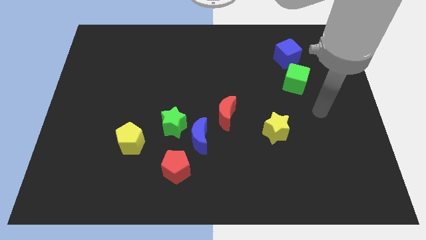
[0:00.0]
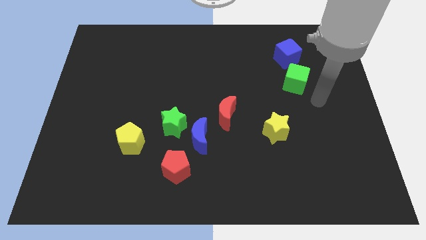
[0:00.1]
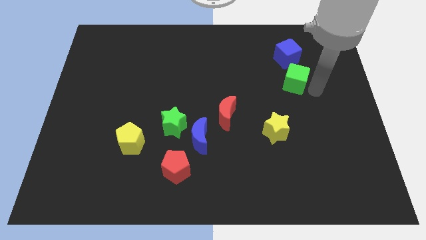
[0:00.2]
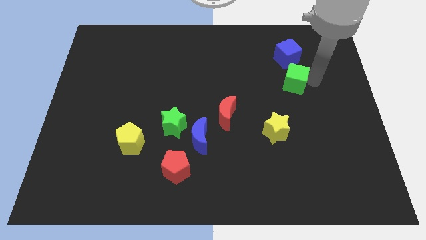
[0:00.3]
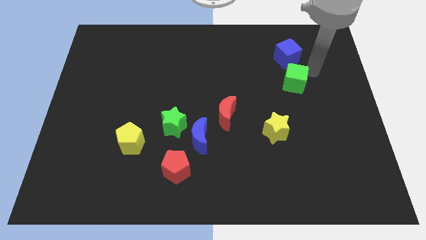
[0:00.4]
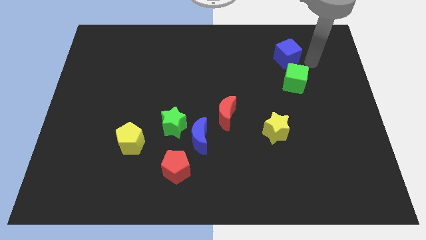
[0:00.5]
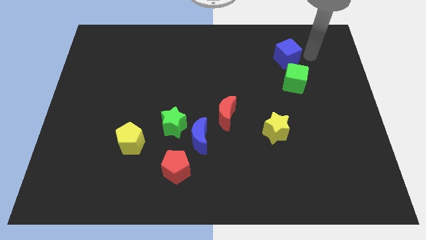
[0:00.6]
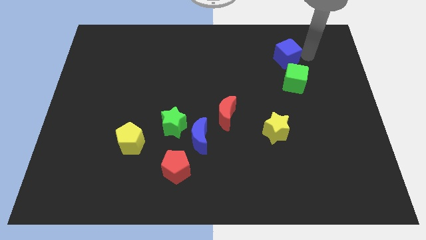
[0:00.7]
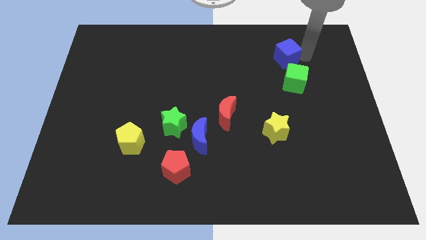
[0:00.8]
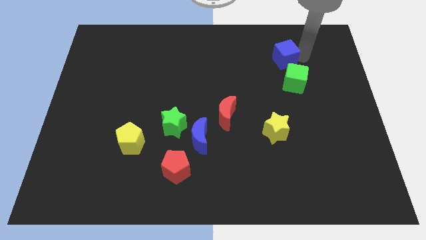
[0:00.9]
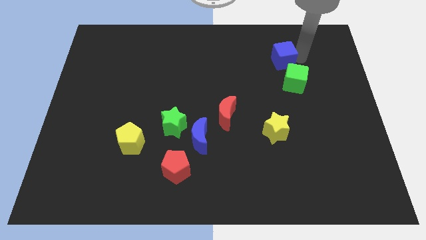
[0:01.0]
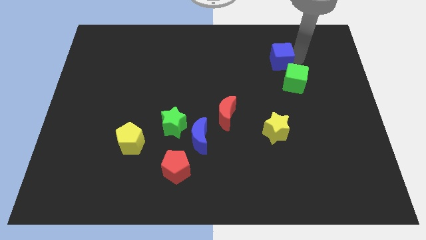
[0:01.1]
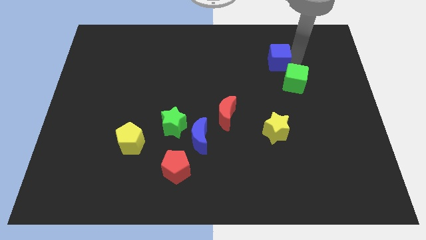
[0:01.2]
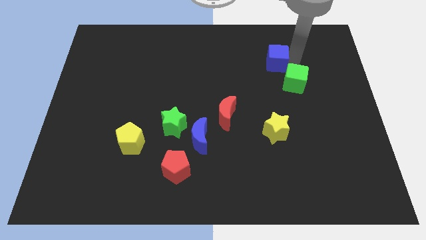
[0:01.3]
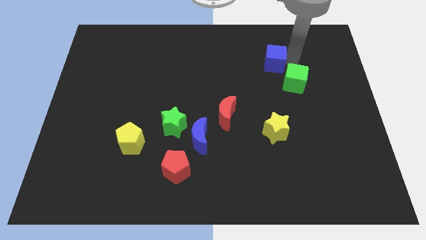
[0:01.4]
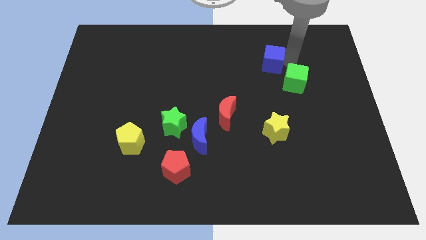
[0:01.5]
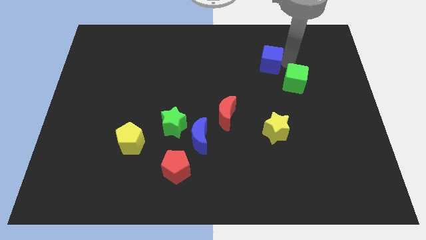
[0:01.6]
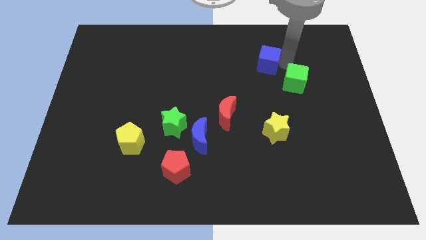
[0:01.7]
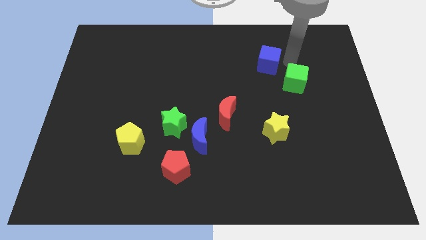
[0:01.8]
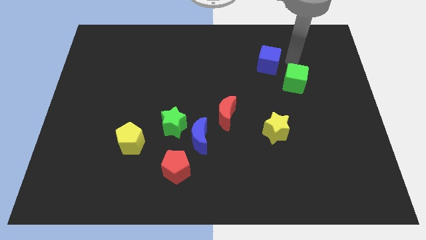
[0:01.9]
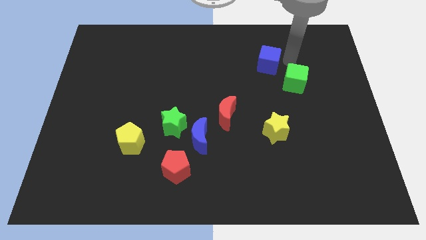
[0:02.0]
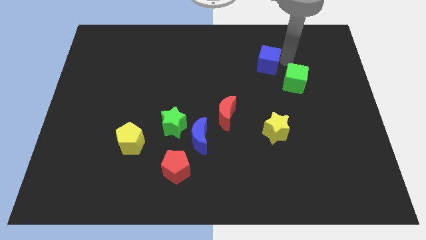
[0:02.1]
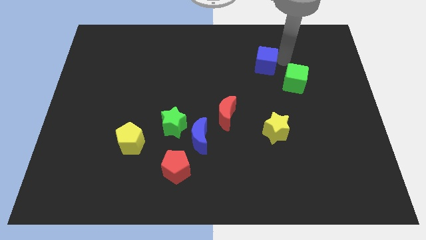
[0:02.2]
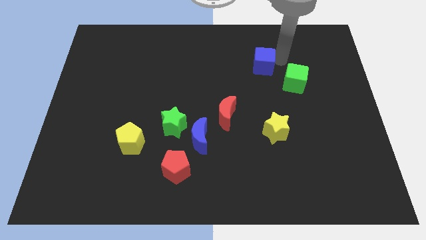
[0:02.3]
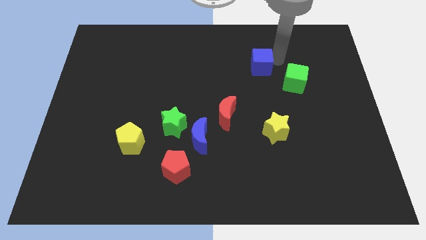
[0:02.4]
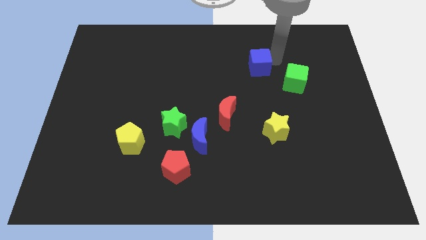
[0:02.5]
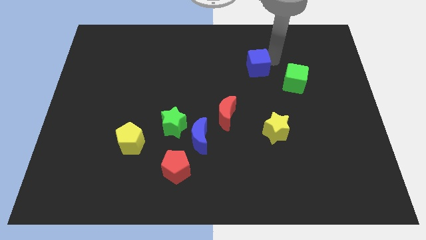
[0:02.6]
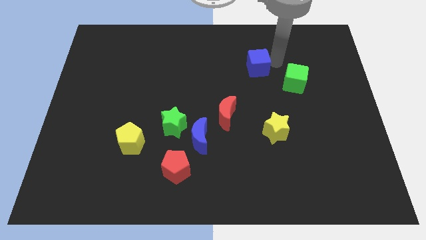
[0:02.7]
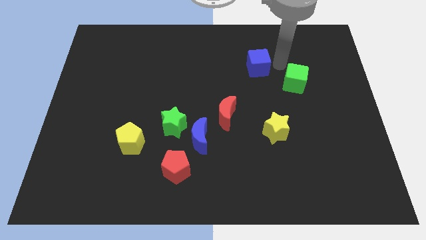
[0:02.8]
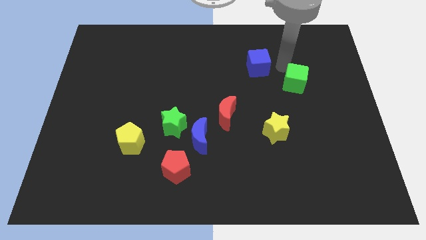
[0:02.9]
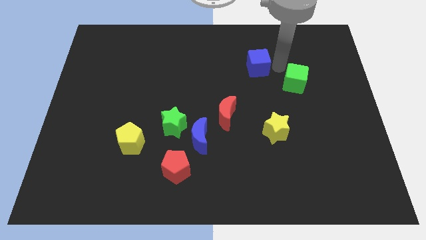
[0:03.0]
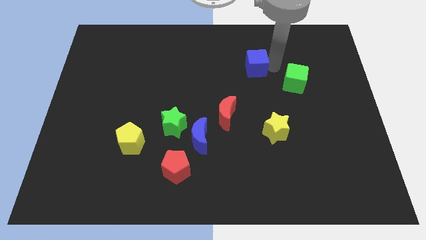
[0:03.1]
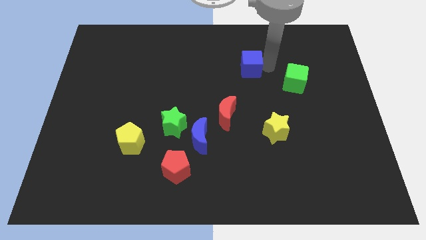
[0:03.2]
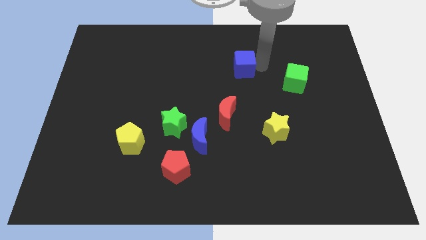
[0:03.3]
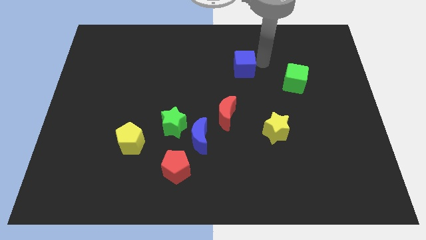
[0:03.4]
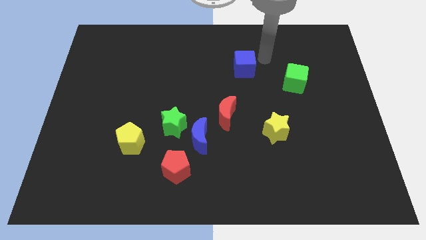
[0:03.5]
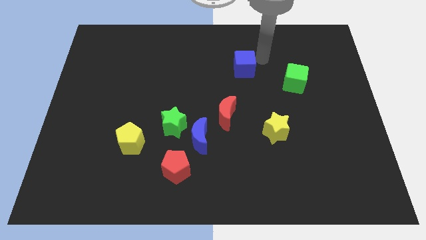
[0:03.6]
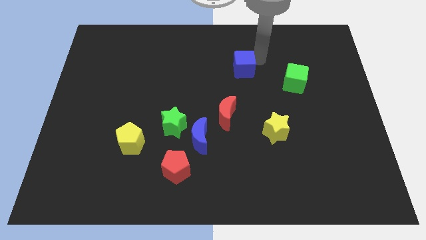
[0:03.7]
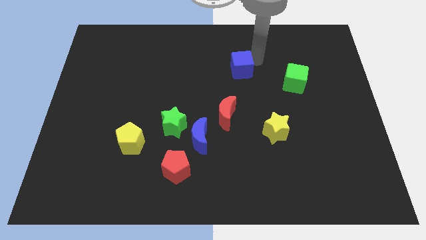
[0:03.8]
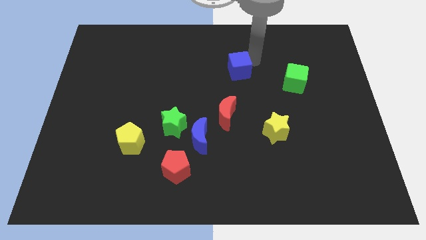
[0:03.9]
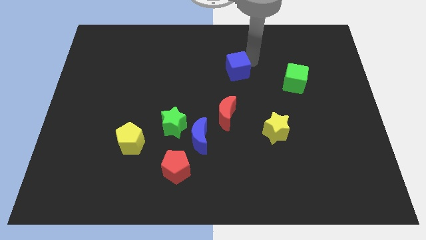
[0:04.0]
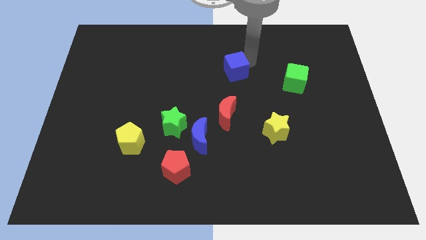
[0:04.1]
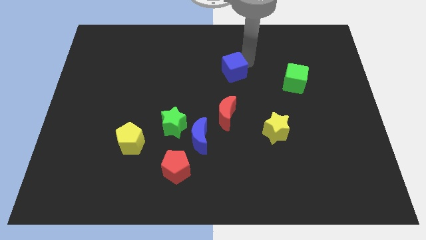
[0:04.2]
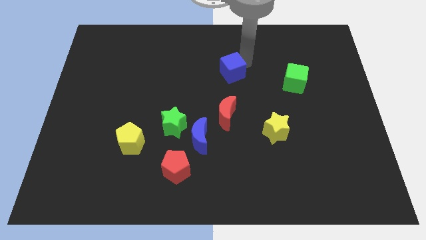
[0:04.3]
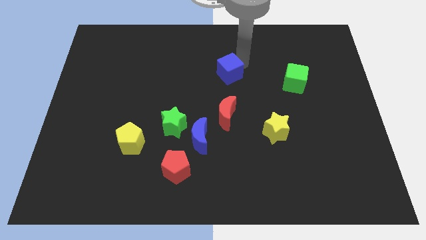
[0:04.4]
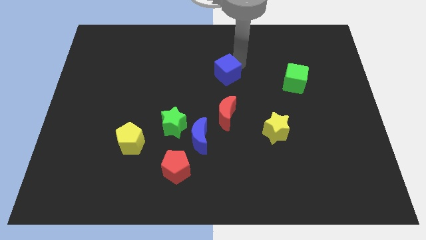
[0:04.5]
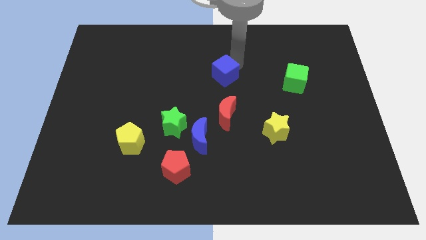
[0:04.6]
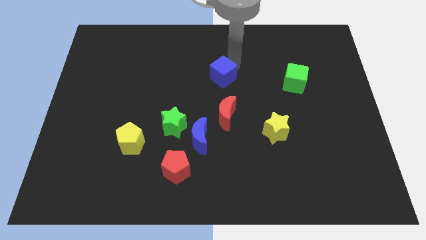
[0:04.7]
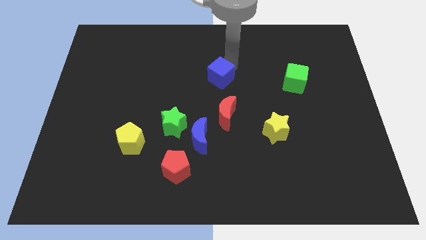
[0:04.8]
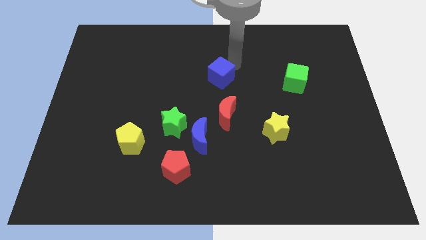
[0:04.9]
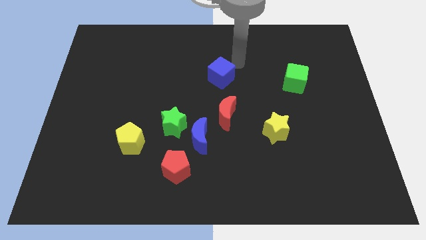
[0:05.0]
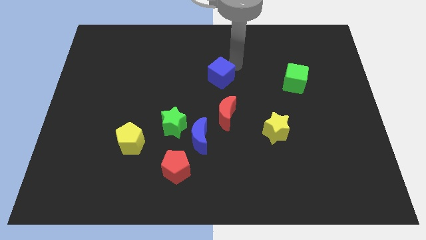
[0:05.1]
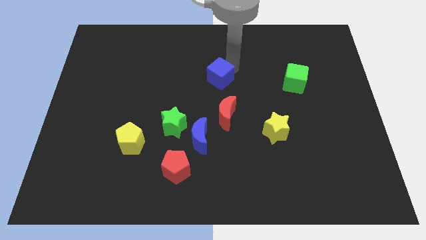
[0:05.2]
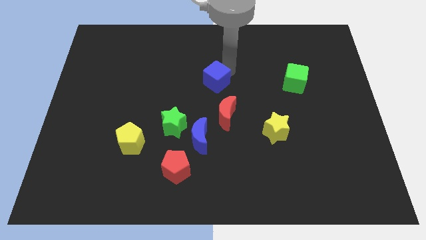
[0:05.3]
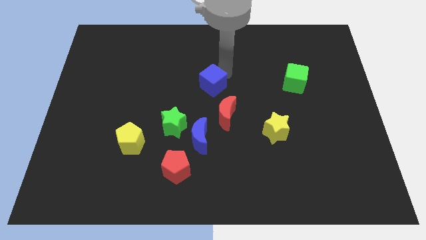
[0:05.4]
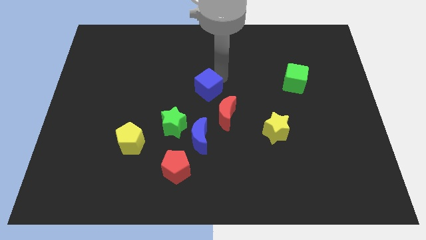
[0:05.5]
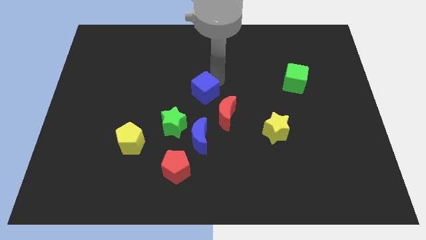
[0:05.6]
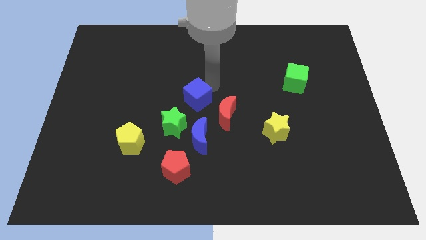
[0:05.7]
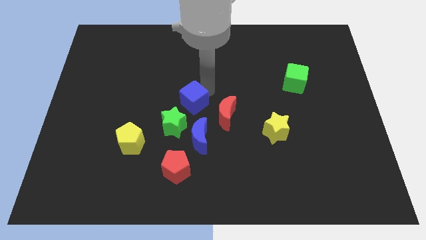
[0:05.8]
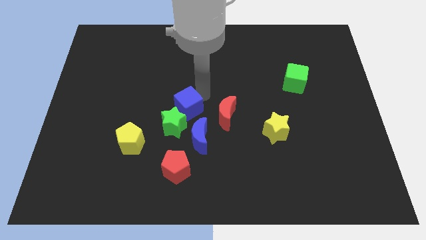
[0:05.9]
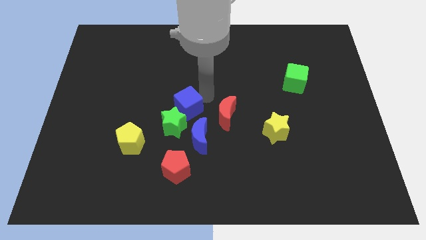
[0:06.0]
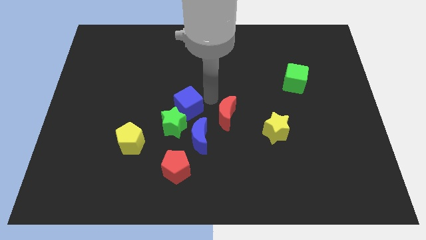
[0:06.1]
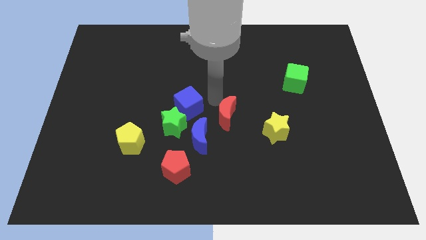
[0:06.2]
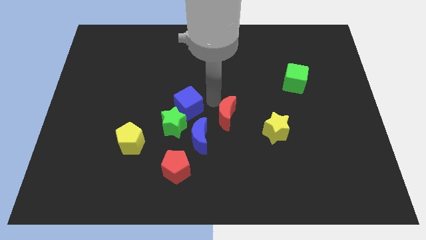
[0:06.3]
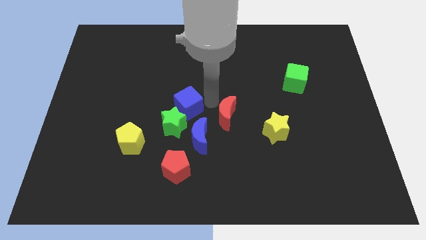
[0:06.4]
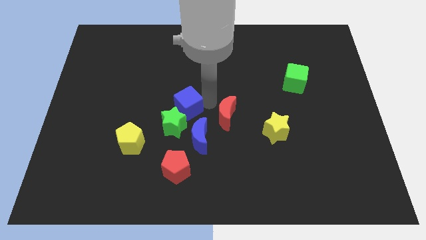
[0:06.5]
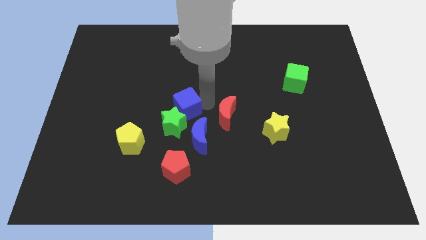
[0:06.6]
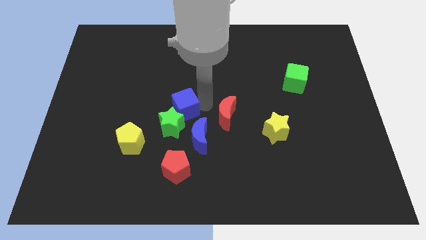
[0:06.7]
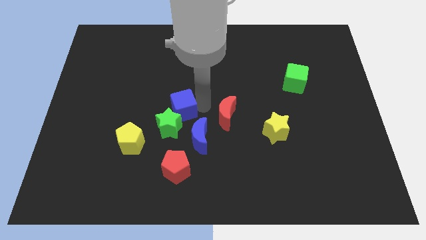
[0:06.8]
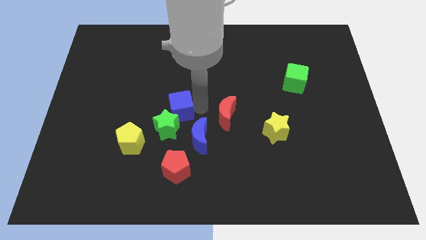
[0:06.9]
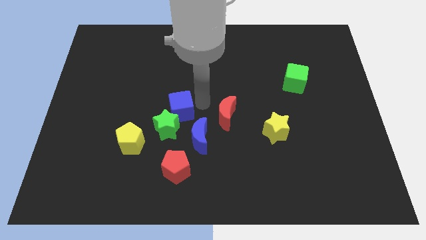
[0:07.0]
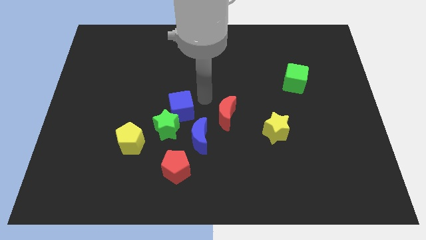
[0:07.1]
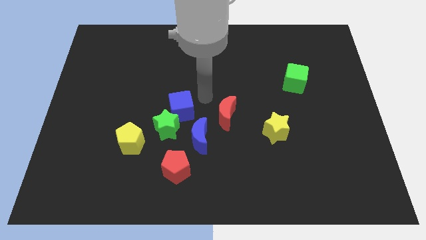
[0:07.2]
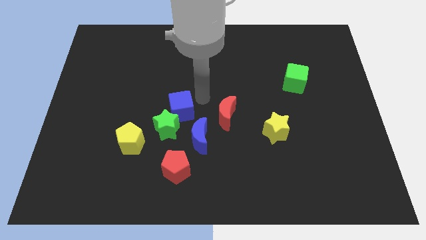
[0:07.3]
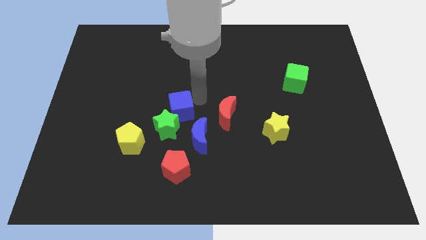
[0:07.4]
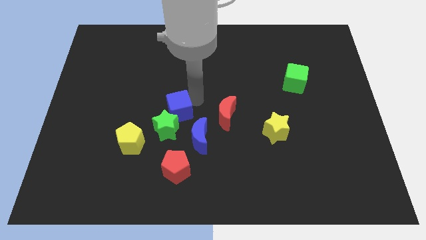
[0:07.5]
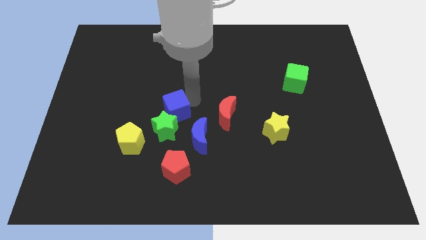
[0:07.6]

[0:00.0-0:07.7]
push the blue cube to the top right side of the yellow pentagon

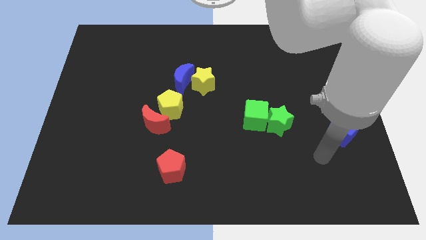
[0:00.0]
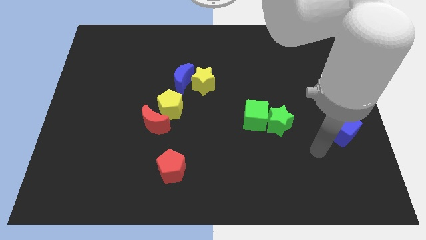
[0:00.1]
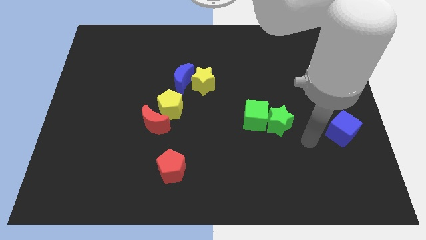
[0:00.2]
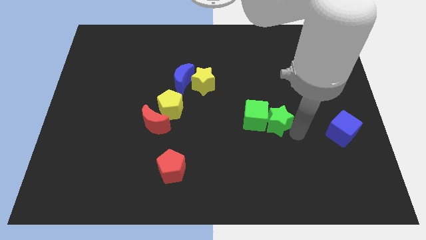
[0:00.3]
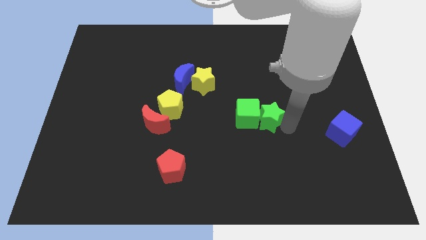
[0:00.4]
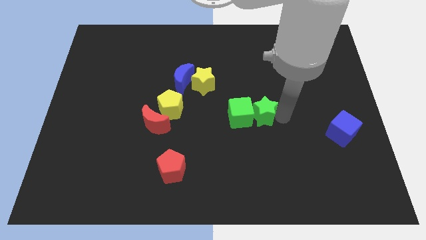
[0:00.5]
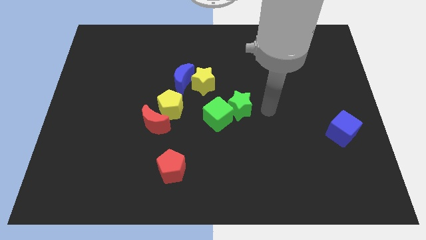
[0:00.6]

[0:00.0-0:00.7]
put the green cube to the right of the red moon
